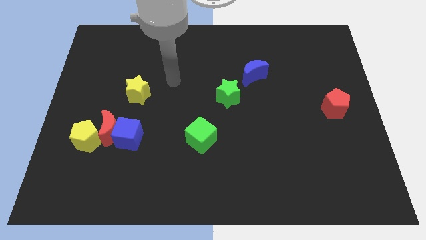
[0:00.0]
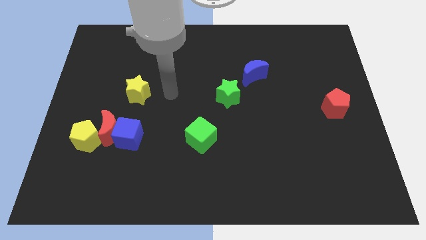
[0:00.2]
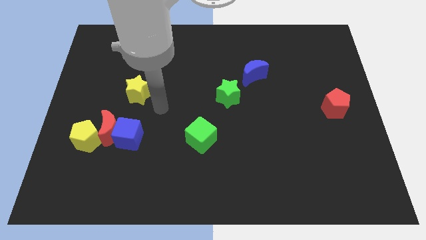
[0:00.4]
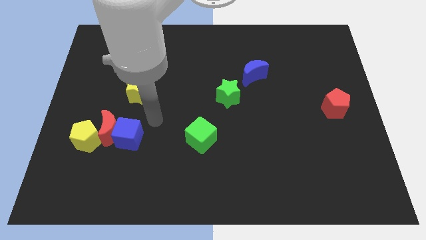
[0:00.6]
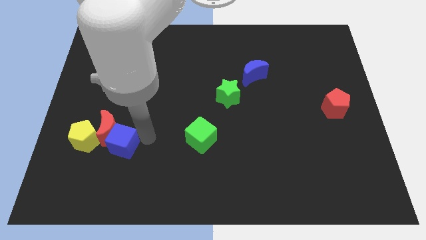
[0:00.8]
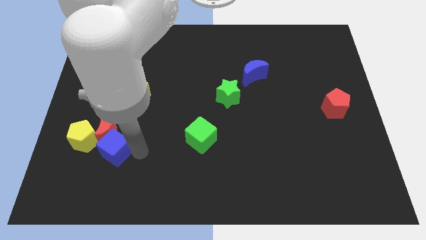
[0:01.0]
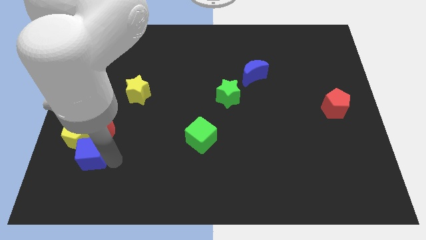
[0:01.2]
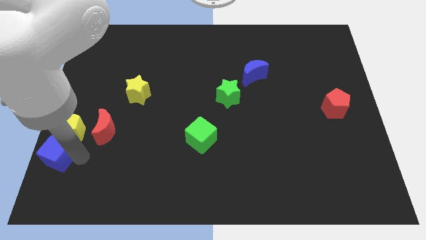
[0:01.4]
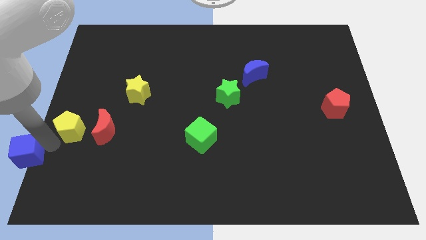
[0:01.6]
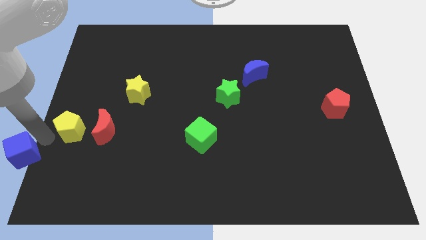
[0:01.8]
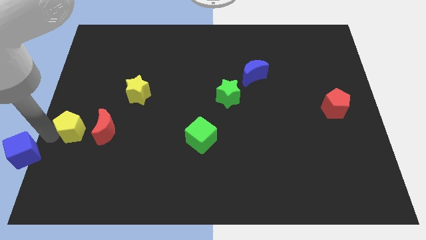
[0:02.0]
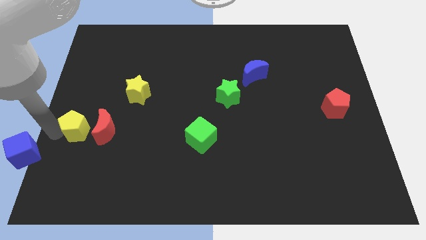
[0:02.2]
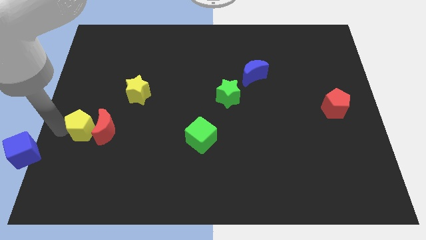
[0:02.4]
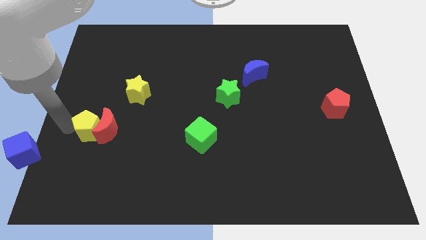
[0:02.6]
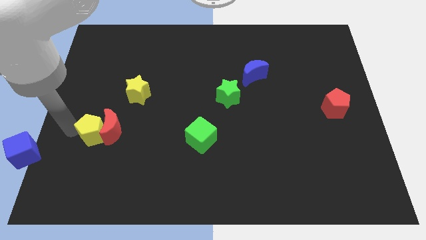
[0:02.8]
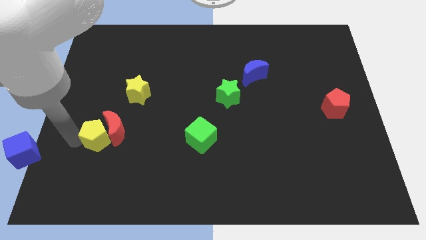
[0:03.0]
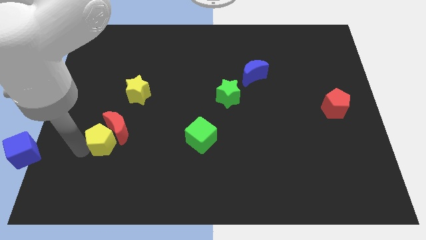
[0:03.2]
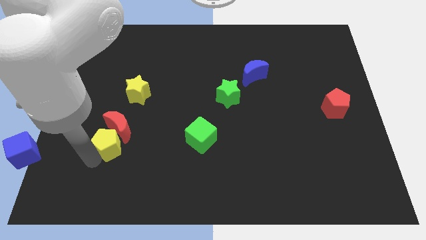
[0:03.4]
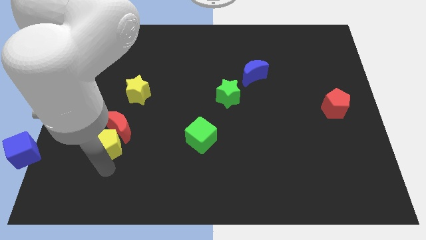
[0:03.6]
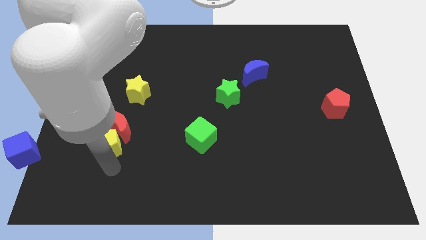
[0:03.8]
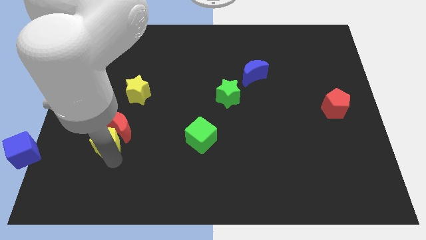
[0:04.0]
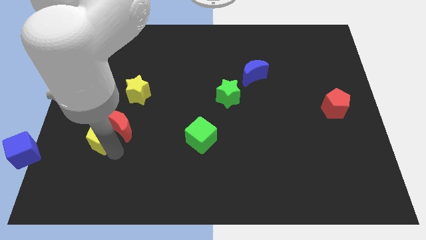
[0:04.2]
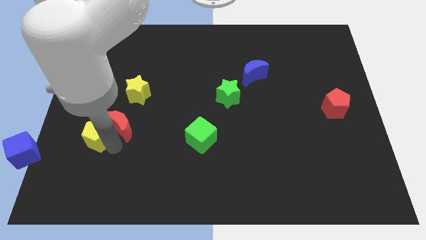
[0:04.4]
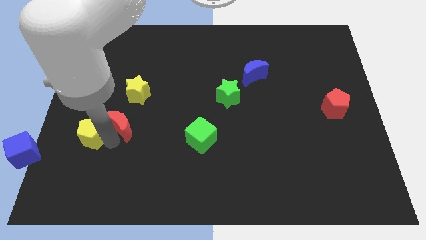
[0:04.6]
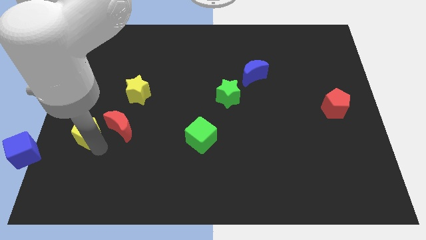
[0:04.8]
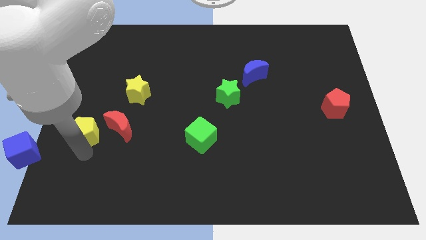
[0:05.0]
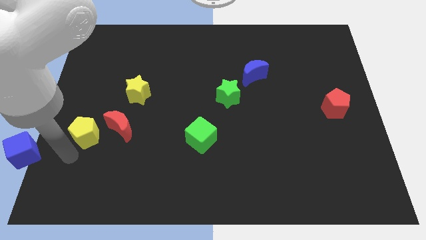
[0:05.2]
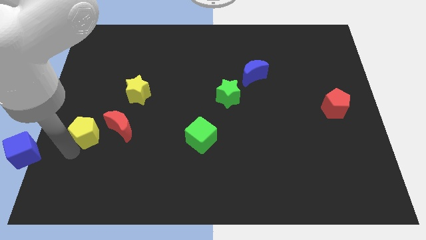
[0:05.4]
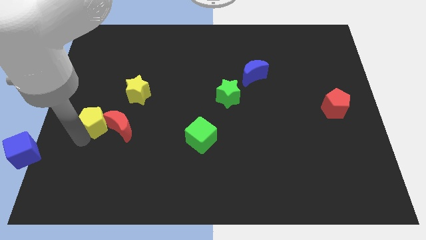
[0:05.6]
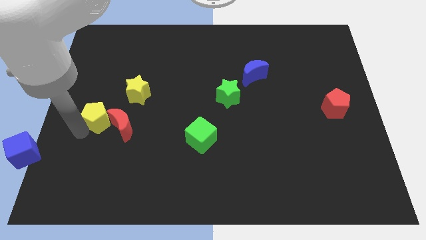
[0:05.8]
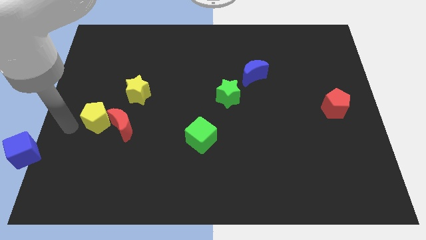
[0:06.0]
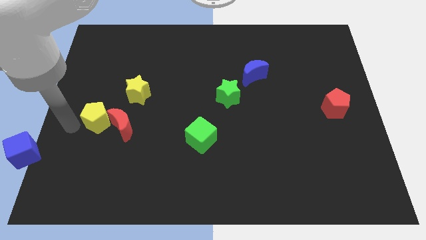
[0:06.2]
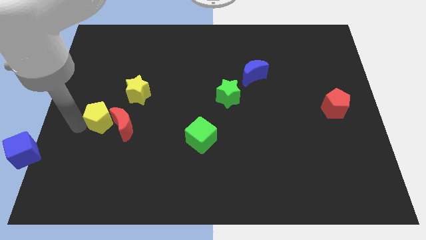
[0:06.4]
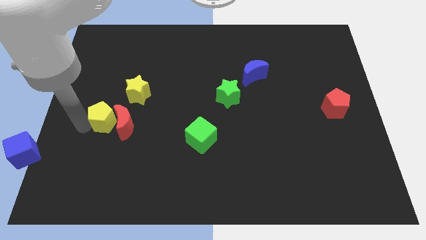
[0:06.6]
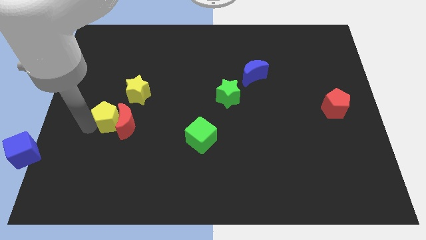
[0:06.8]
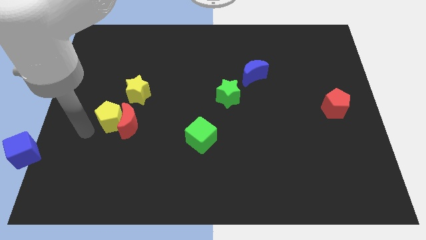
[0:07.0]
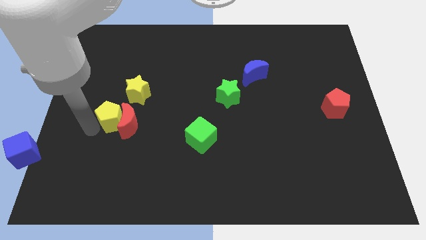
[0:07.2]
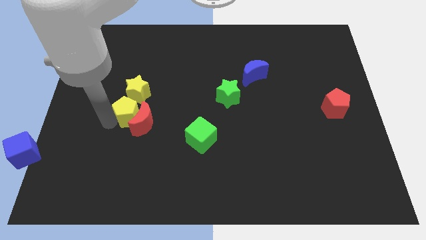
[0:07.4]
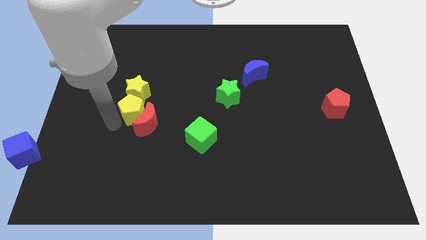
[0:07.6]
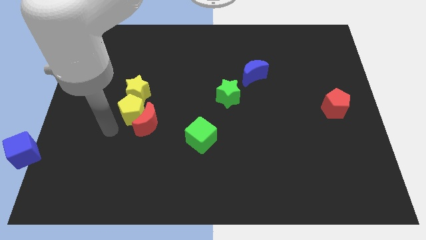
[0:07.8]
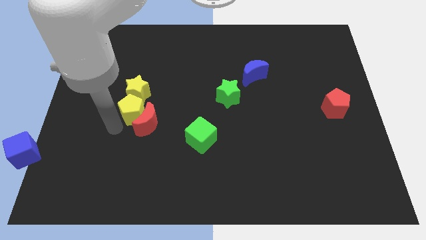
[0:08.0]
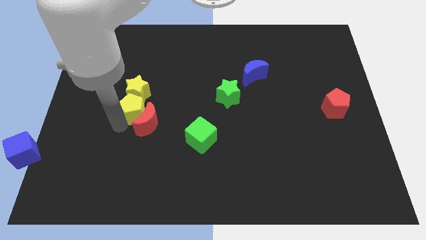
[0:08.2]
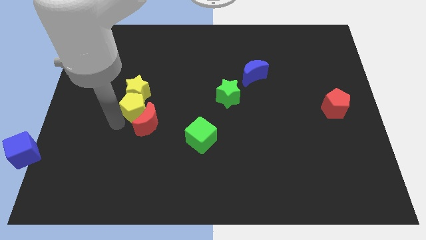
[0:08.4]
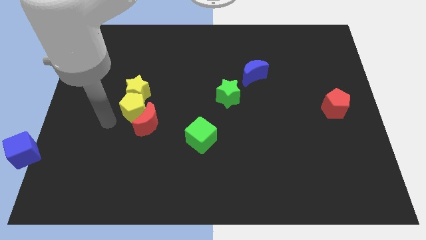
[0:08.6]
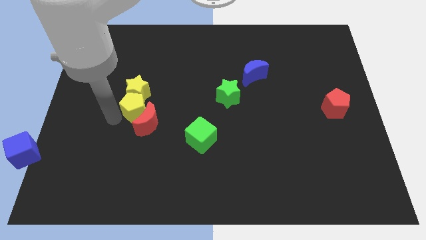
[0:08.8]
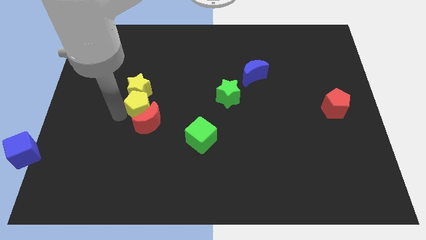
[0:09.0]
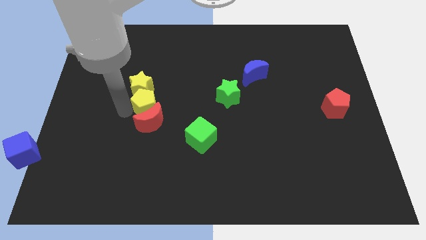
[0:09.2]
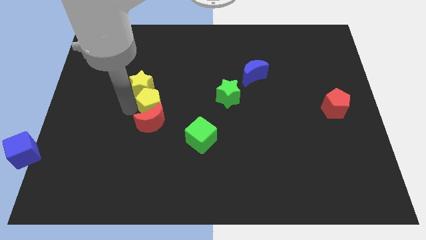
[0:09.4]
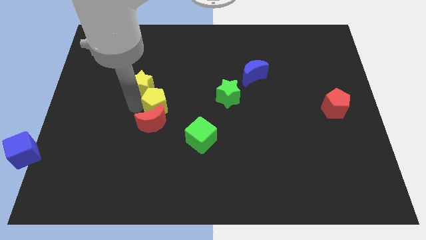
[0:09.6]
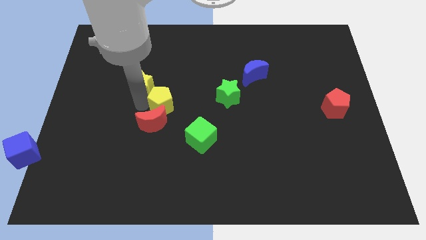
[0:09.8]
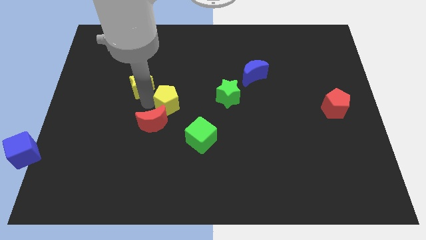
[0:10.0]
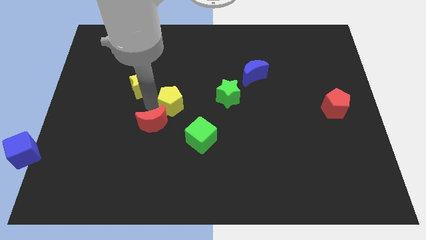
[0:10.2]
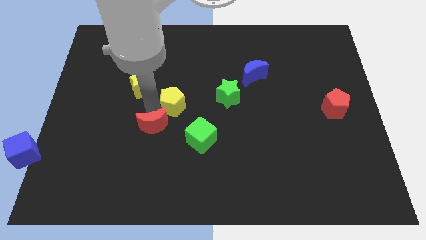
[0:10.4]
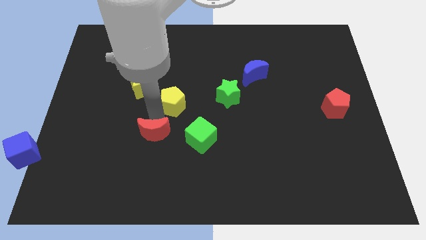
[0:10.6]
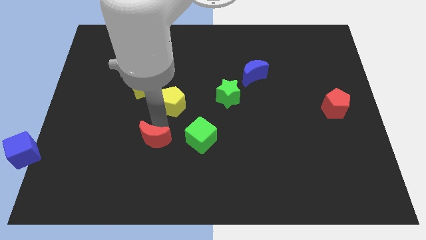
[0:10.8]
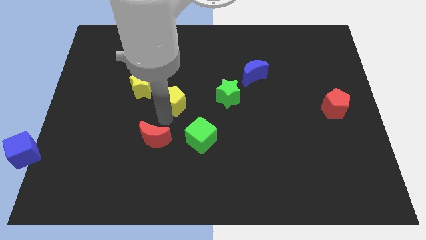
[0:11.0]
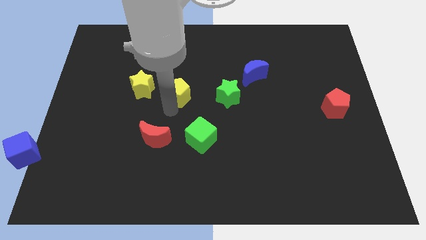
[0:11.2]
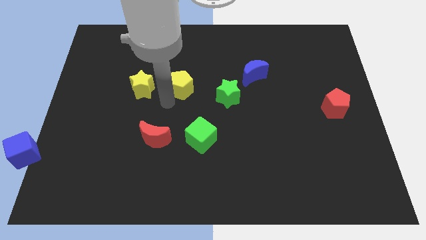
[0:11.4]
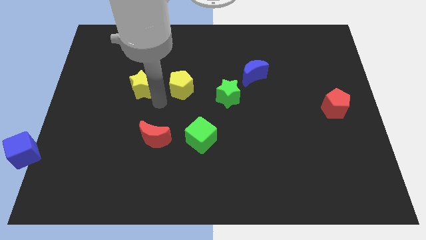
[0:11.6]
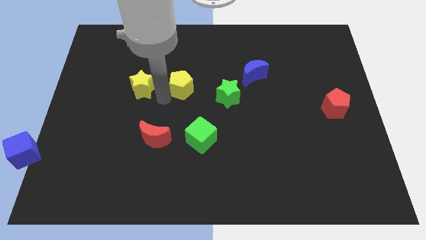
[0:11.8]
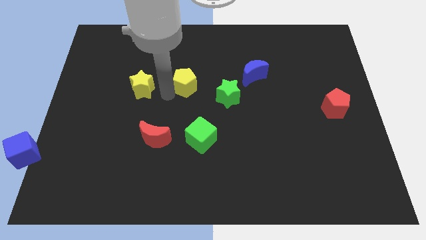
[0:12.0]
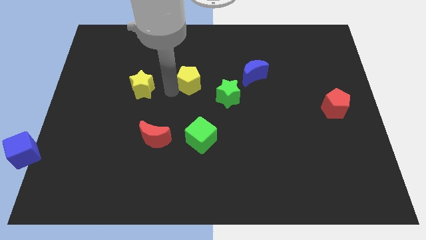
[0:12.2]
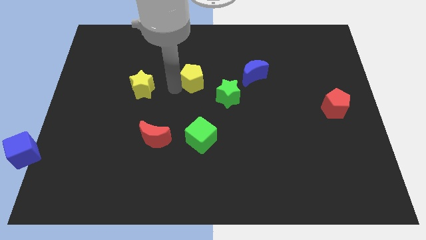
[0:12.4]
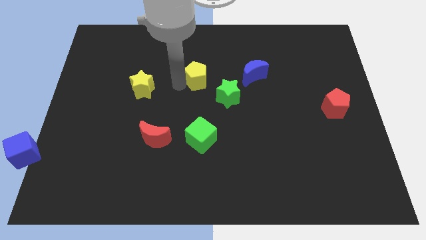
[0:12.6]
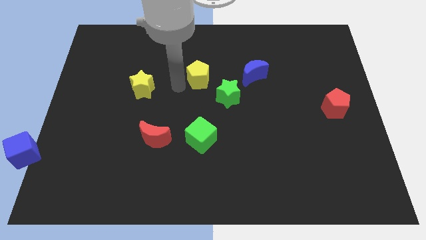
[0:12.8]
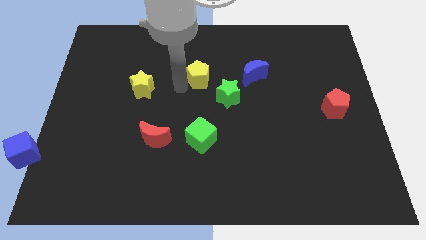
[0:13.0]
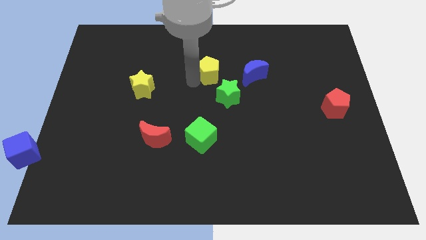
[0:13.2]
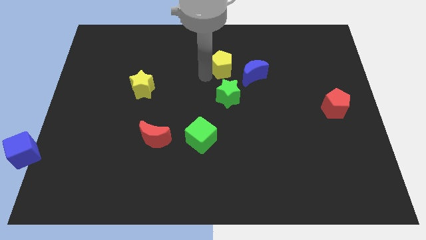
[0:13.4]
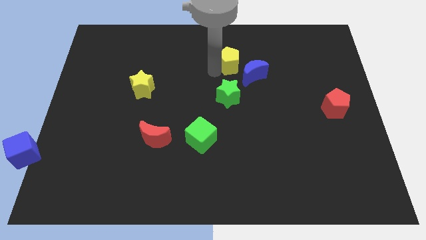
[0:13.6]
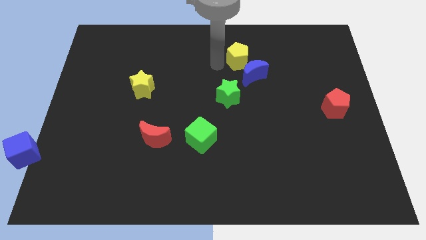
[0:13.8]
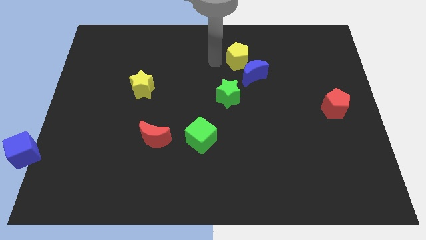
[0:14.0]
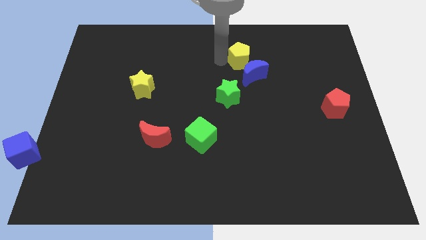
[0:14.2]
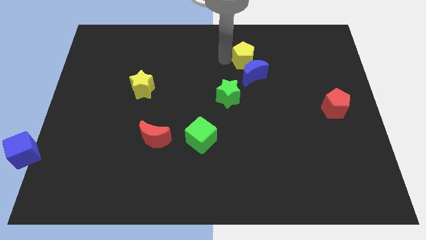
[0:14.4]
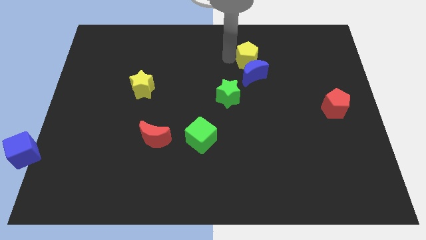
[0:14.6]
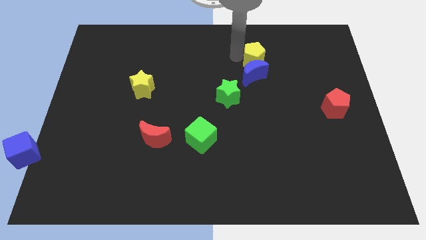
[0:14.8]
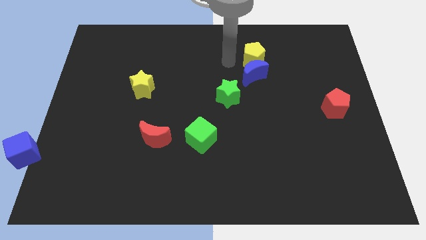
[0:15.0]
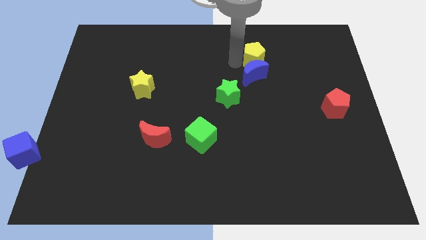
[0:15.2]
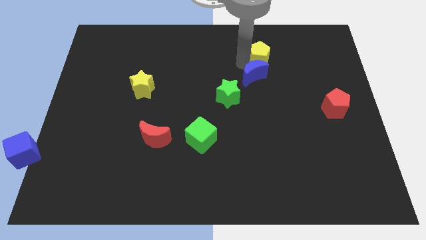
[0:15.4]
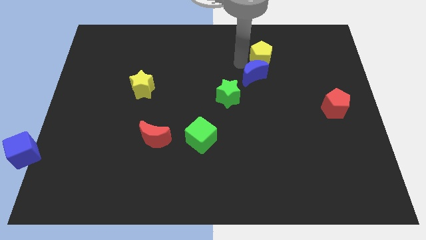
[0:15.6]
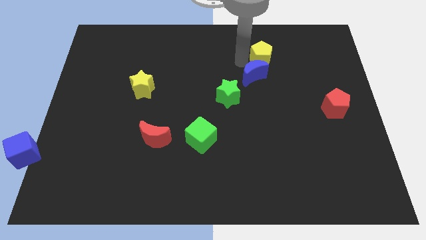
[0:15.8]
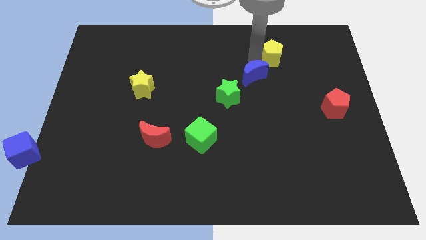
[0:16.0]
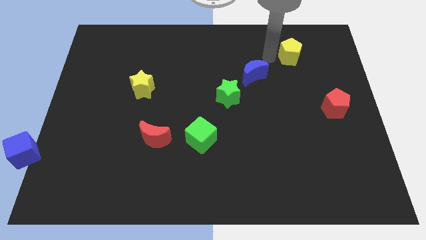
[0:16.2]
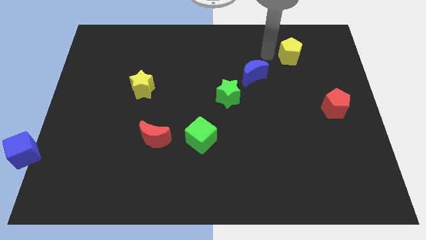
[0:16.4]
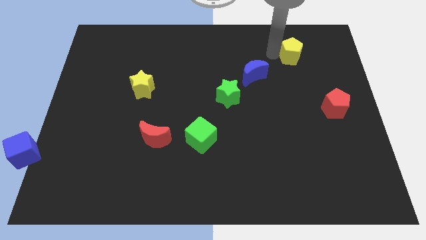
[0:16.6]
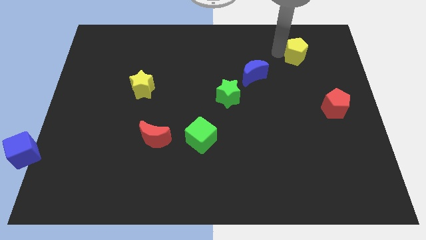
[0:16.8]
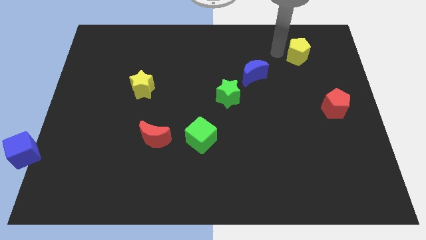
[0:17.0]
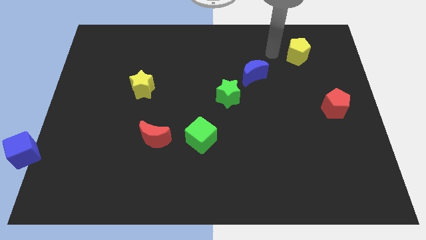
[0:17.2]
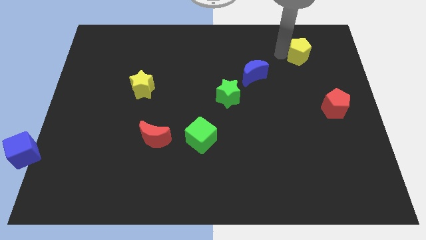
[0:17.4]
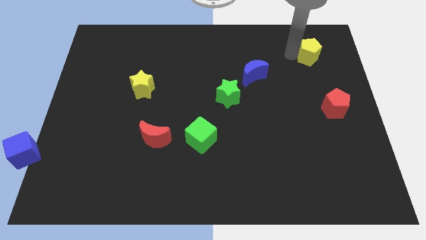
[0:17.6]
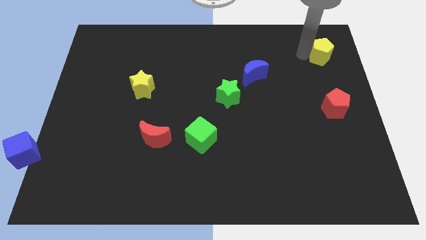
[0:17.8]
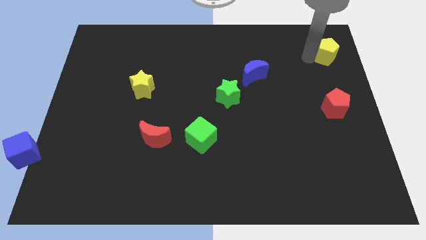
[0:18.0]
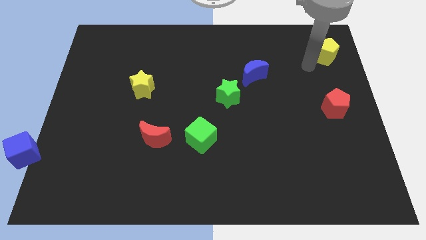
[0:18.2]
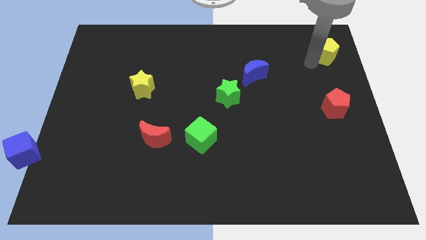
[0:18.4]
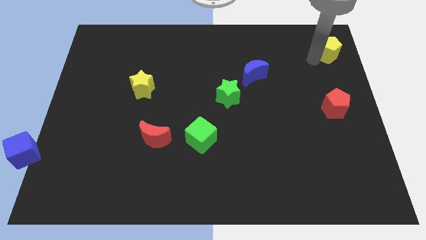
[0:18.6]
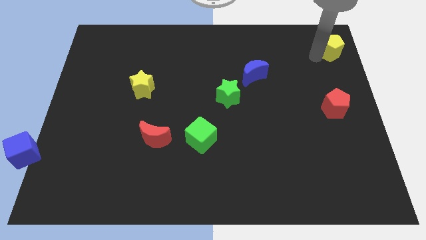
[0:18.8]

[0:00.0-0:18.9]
put the yellow pentagon to the upper right corner
